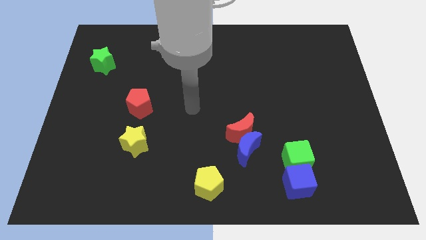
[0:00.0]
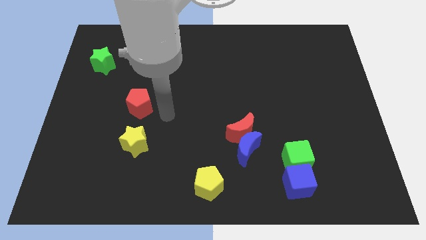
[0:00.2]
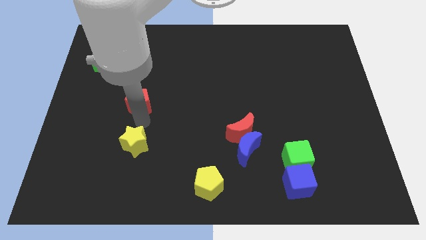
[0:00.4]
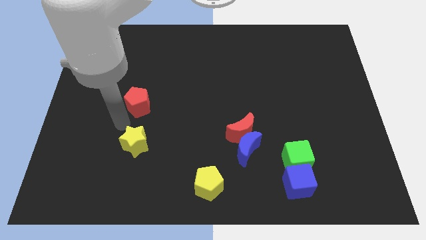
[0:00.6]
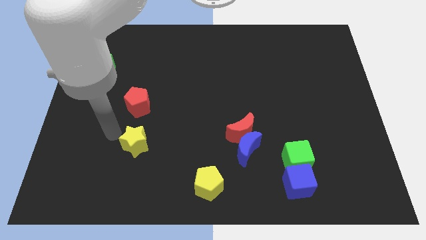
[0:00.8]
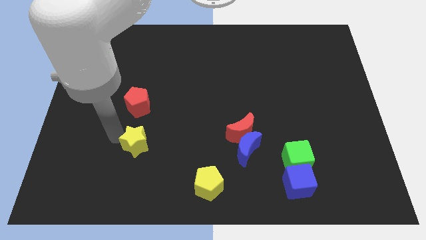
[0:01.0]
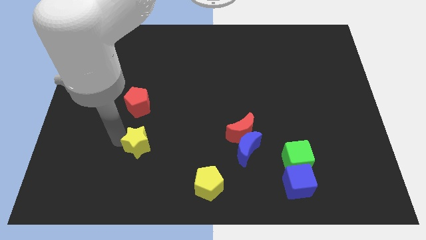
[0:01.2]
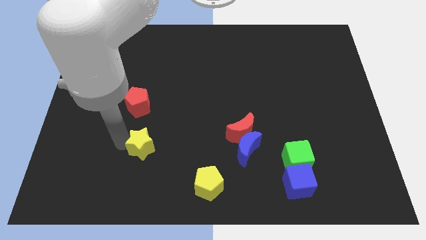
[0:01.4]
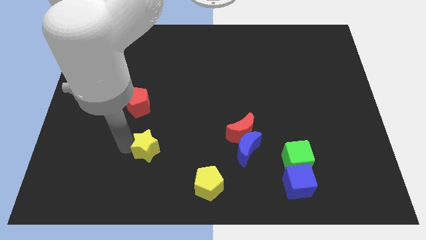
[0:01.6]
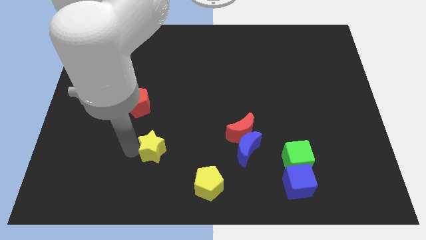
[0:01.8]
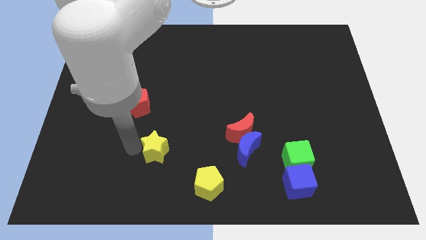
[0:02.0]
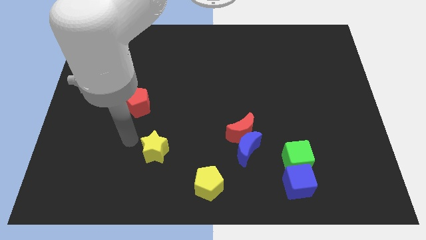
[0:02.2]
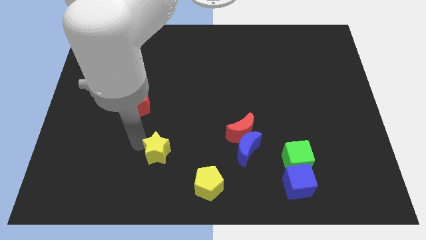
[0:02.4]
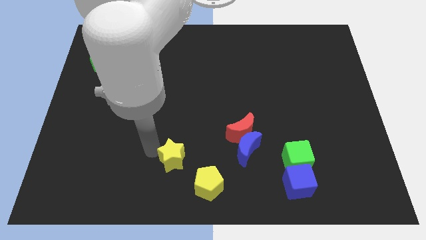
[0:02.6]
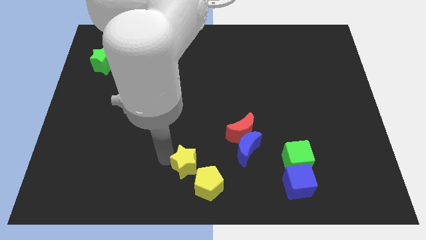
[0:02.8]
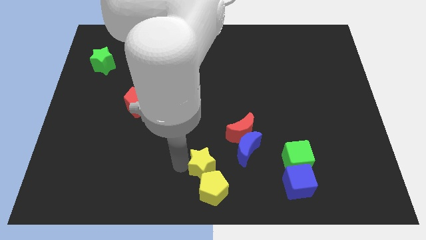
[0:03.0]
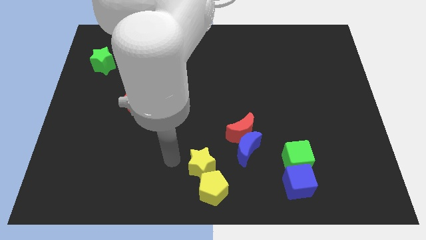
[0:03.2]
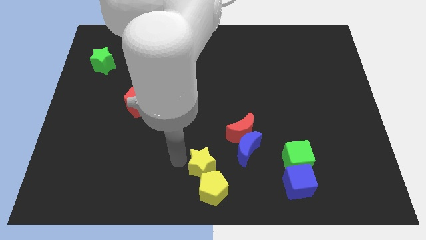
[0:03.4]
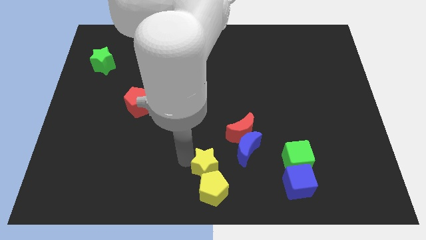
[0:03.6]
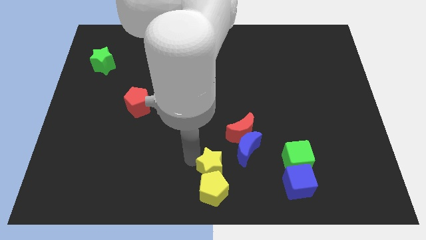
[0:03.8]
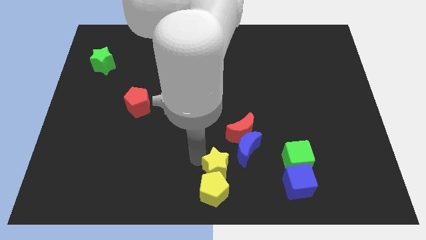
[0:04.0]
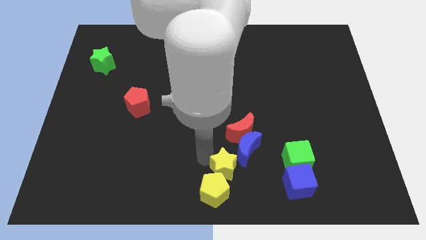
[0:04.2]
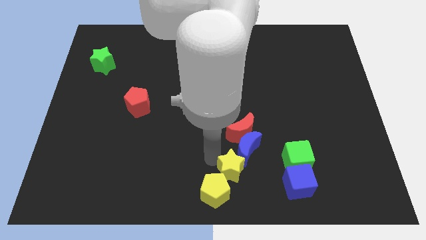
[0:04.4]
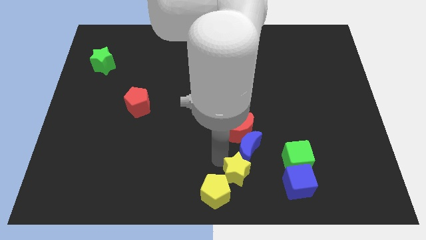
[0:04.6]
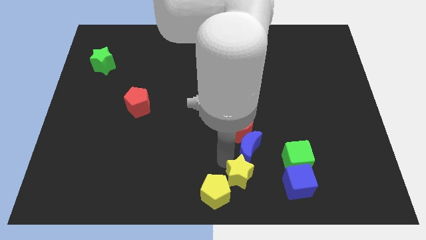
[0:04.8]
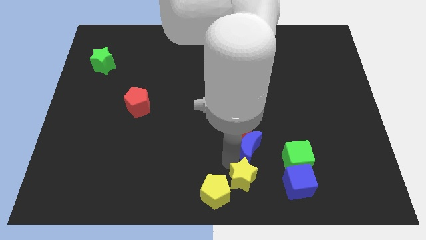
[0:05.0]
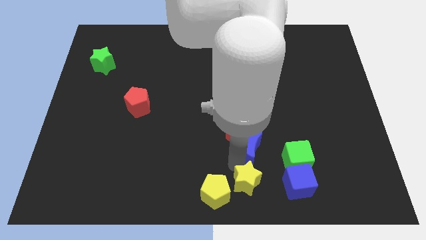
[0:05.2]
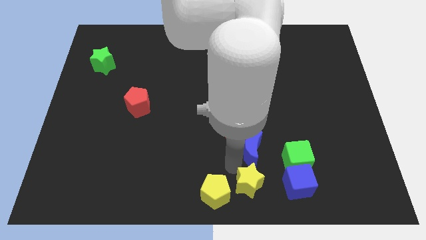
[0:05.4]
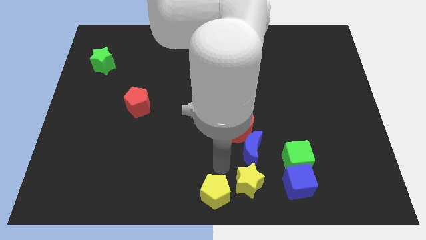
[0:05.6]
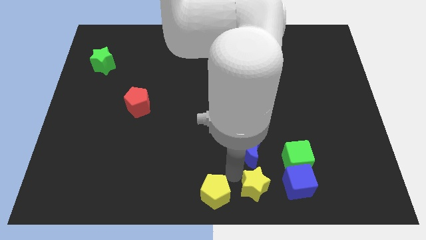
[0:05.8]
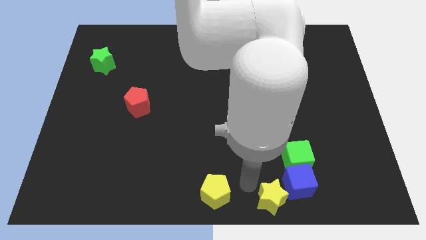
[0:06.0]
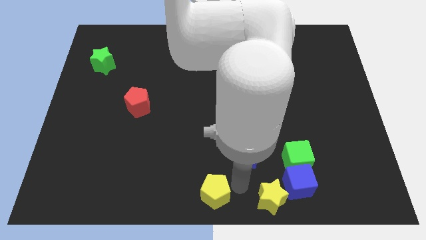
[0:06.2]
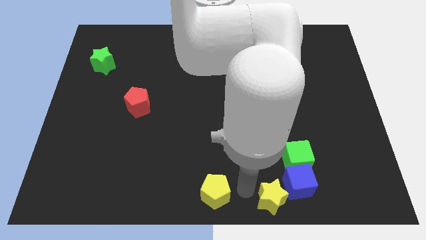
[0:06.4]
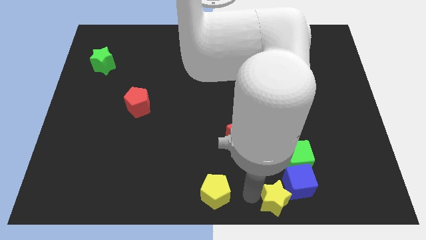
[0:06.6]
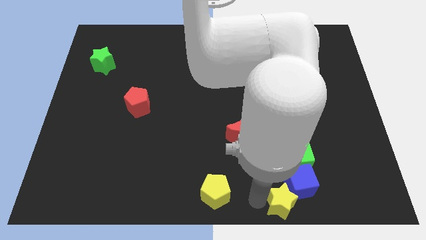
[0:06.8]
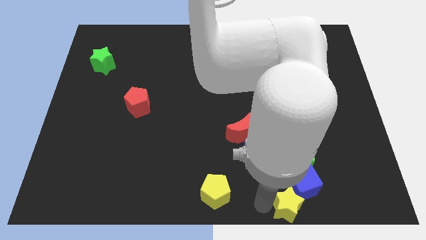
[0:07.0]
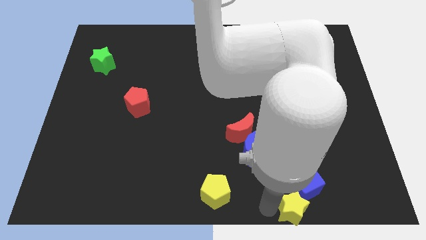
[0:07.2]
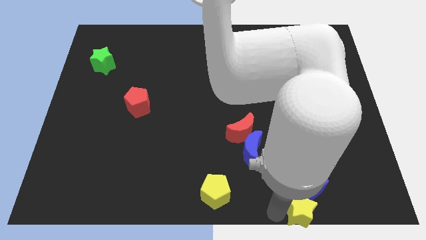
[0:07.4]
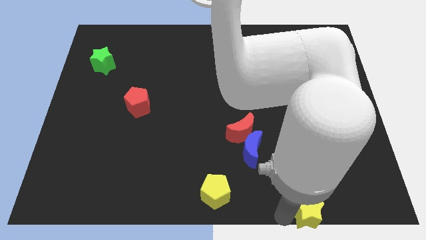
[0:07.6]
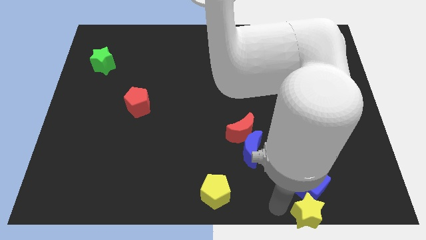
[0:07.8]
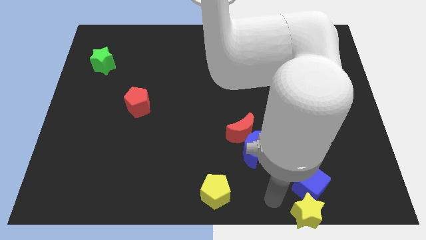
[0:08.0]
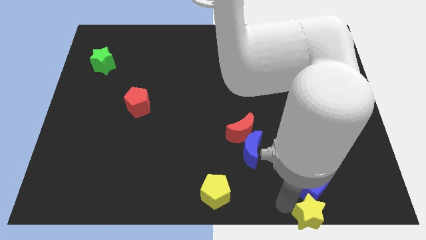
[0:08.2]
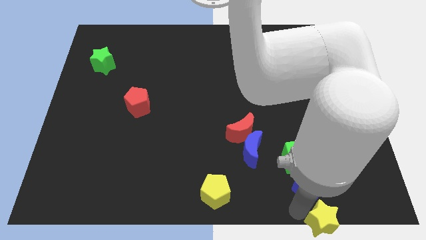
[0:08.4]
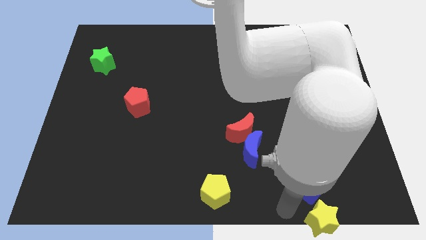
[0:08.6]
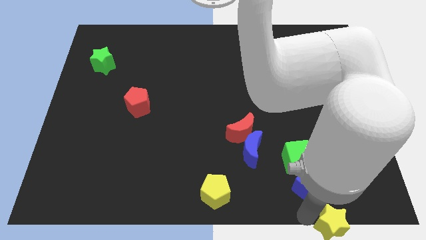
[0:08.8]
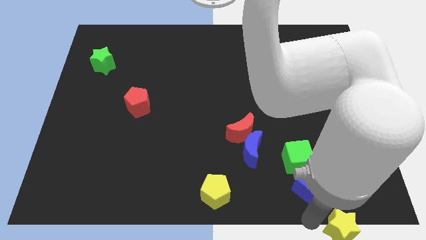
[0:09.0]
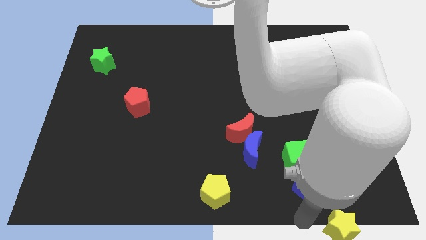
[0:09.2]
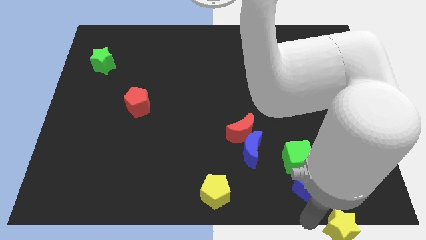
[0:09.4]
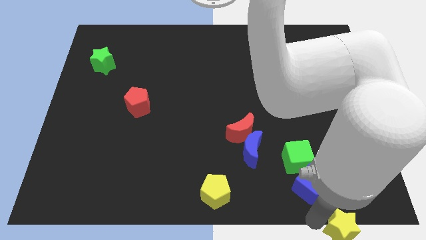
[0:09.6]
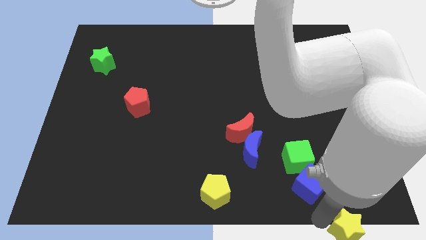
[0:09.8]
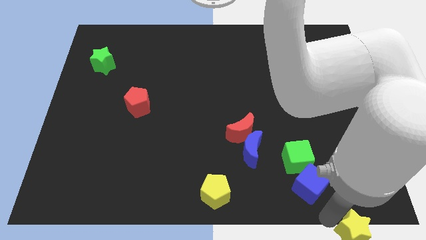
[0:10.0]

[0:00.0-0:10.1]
move the yellow star to the bottom right

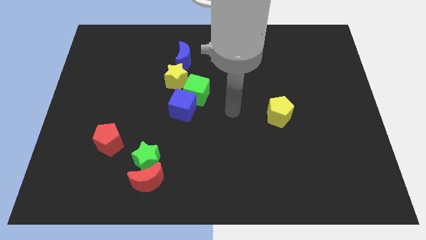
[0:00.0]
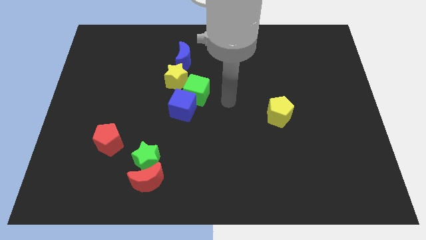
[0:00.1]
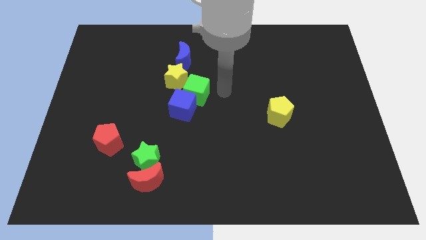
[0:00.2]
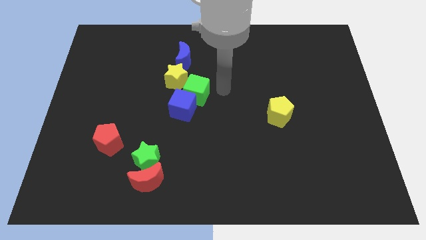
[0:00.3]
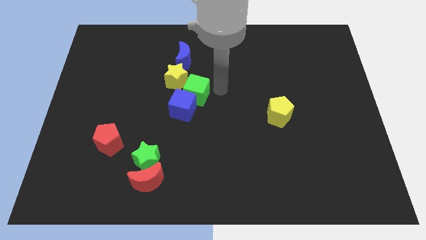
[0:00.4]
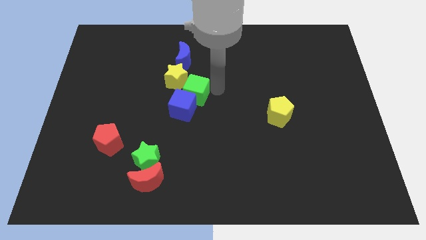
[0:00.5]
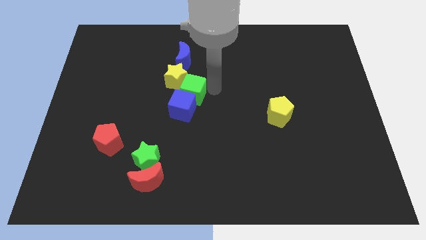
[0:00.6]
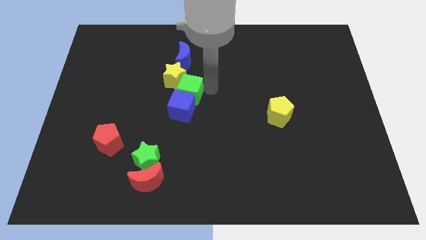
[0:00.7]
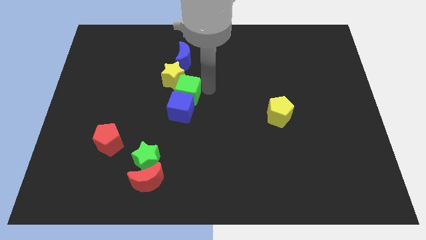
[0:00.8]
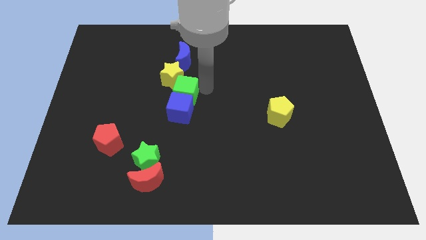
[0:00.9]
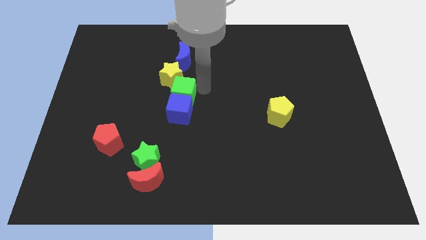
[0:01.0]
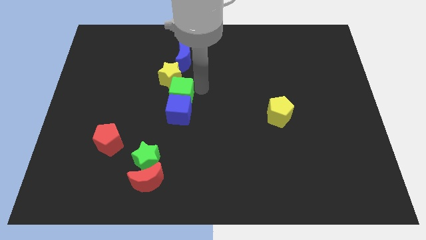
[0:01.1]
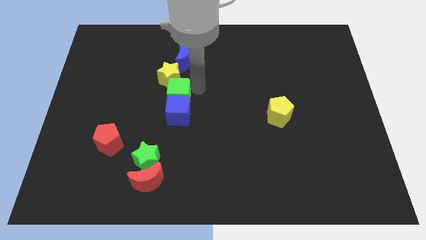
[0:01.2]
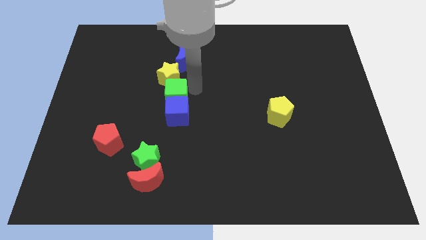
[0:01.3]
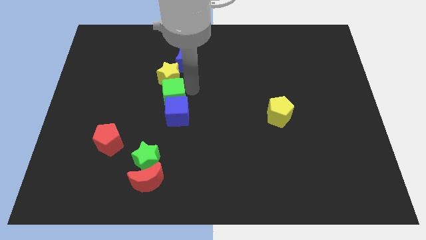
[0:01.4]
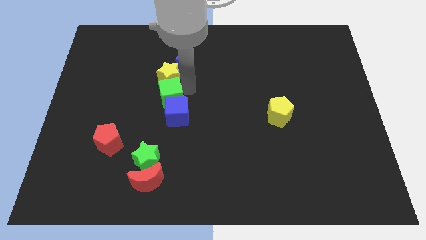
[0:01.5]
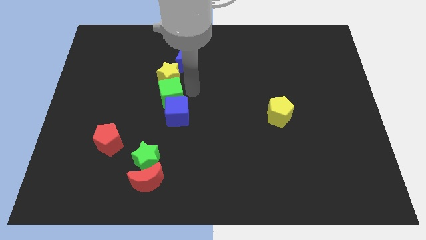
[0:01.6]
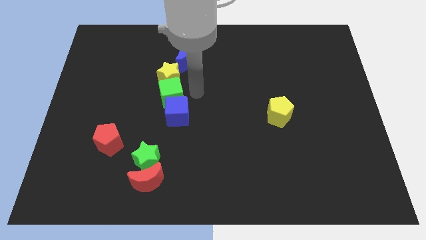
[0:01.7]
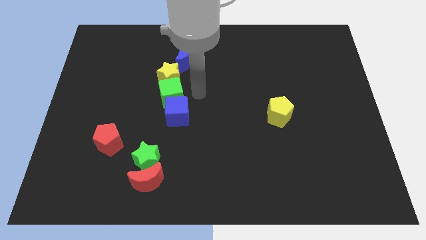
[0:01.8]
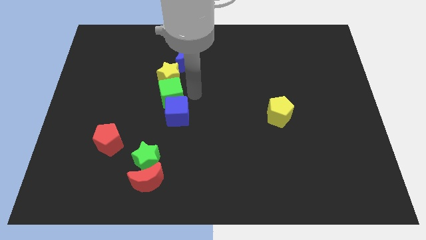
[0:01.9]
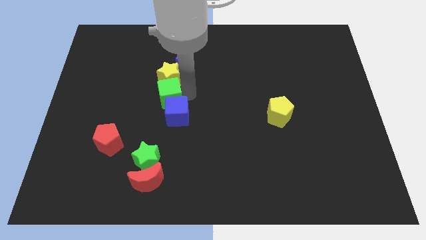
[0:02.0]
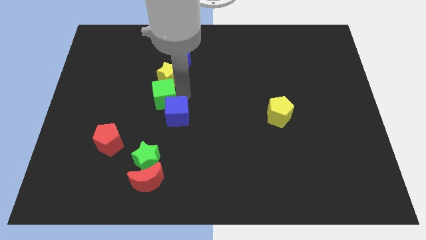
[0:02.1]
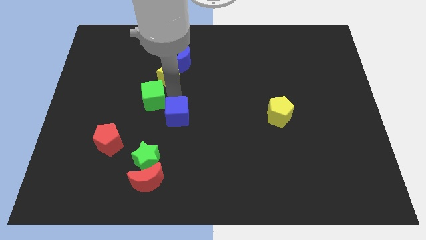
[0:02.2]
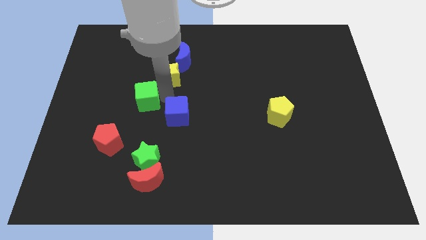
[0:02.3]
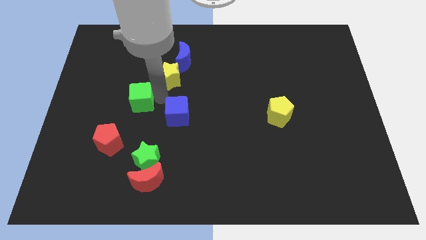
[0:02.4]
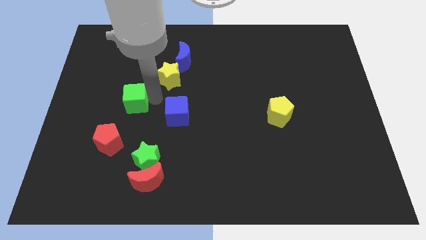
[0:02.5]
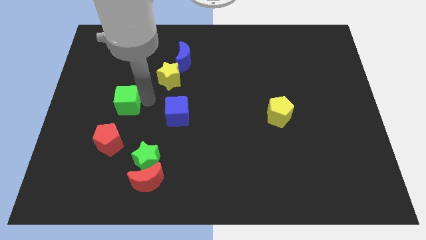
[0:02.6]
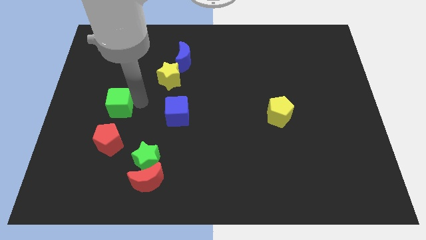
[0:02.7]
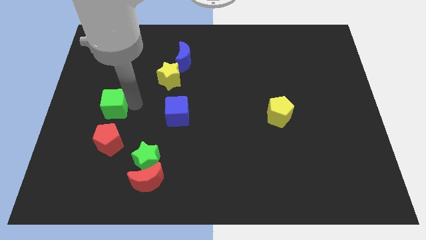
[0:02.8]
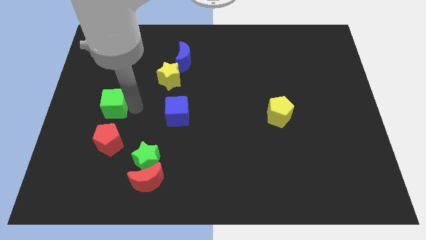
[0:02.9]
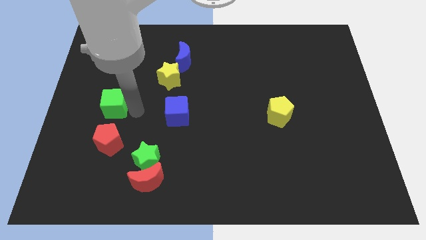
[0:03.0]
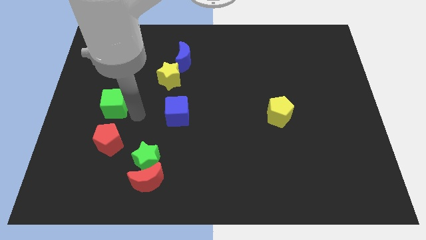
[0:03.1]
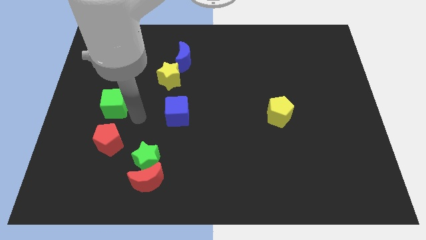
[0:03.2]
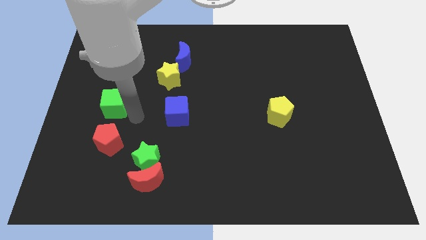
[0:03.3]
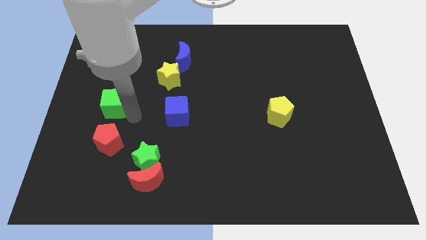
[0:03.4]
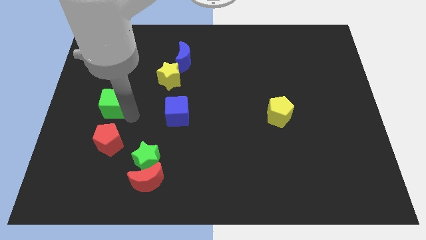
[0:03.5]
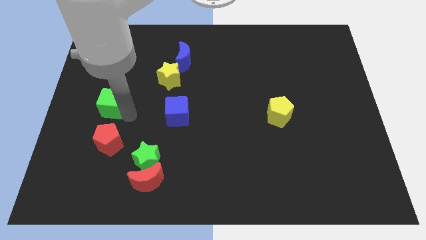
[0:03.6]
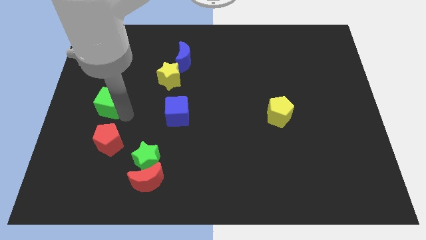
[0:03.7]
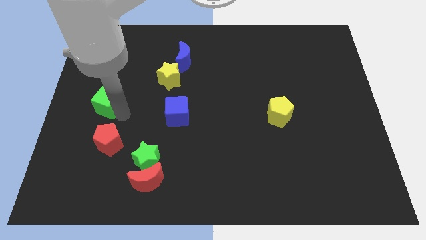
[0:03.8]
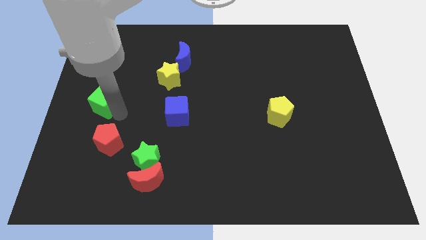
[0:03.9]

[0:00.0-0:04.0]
move the green cube to the center left
